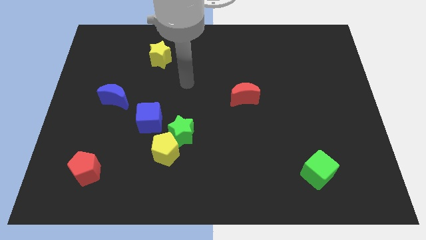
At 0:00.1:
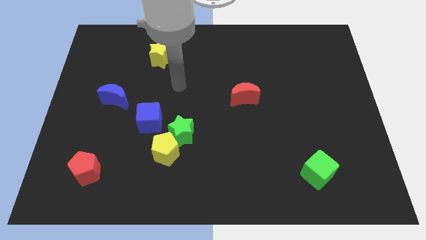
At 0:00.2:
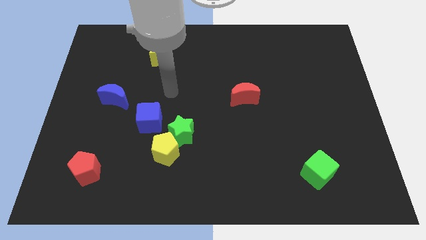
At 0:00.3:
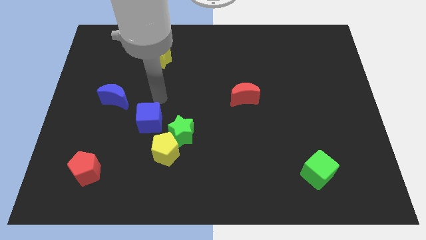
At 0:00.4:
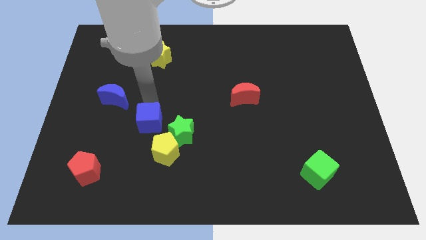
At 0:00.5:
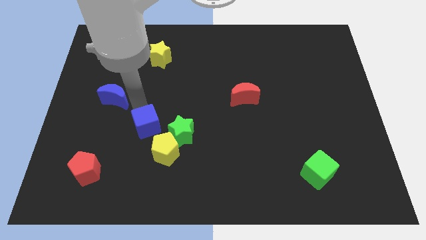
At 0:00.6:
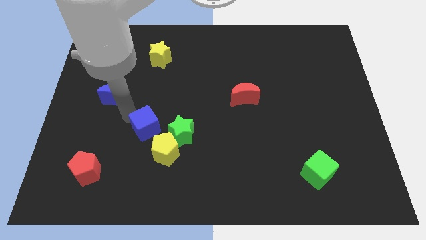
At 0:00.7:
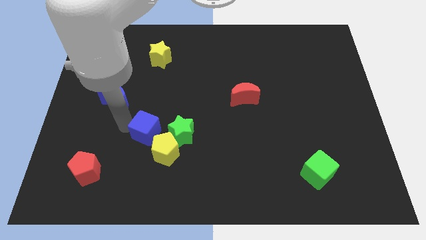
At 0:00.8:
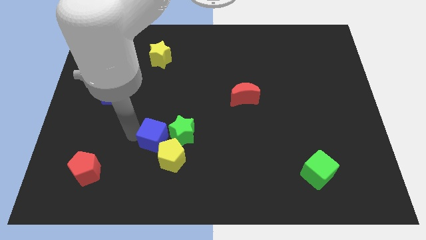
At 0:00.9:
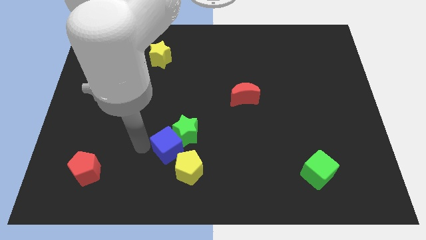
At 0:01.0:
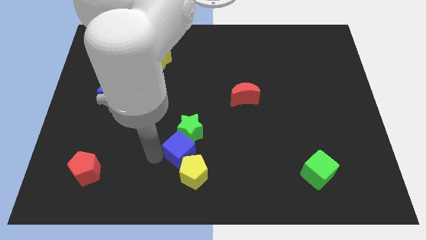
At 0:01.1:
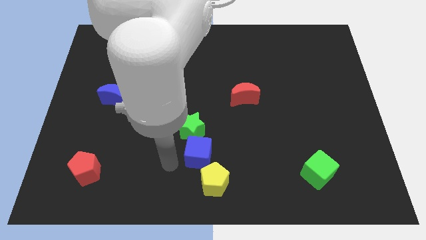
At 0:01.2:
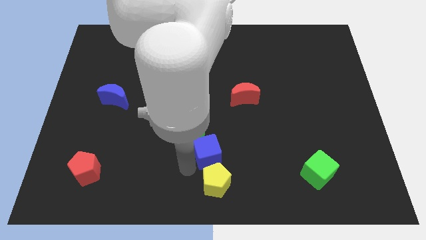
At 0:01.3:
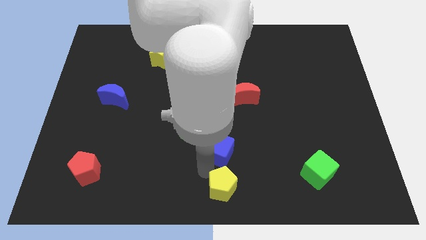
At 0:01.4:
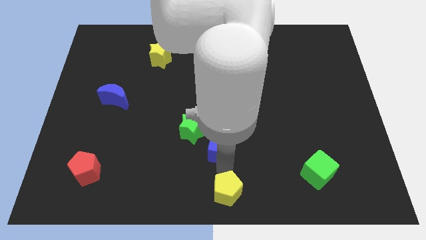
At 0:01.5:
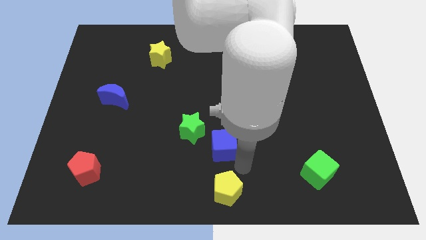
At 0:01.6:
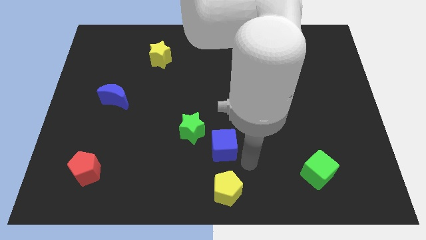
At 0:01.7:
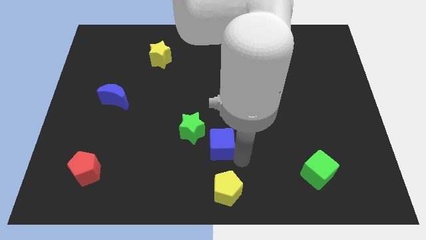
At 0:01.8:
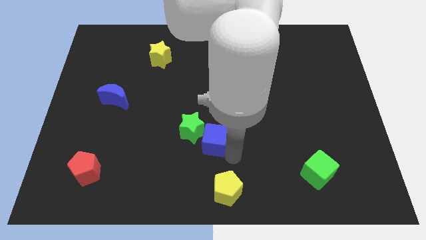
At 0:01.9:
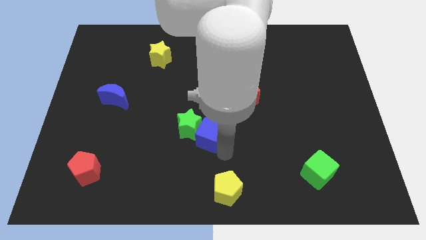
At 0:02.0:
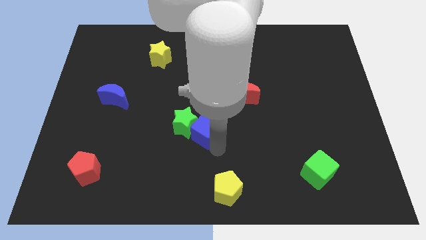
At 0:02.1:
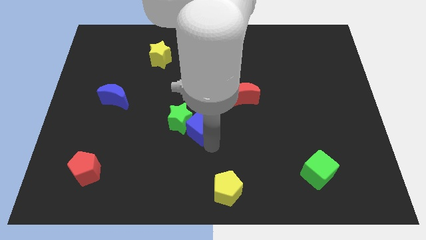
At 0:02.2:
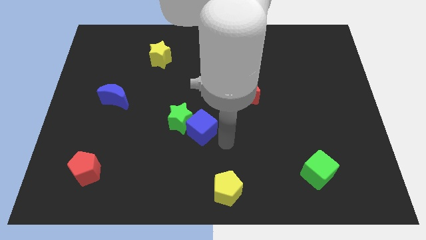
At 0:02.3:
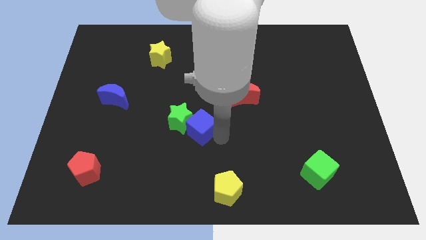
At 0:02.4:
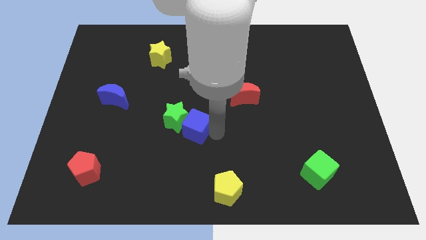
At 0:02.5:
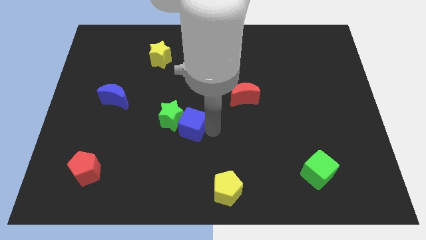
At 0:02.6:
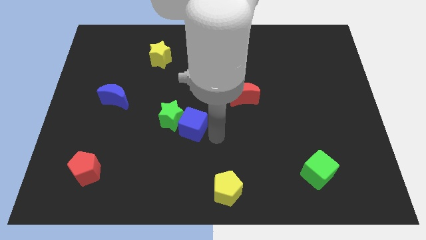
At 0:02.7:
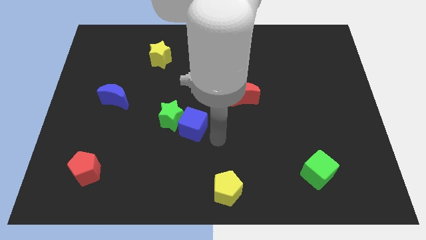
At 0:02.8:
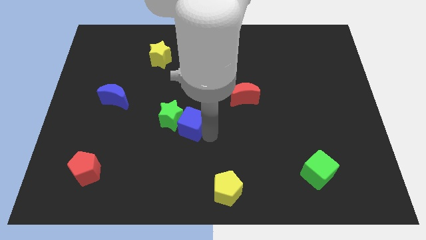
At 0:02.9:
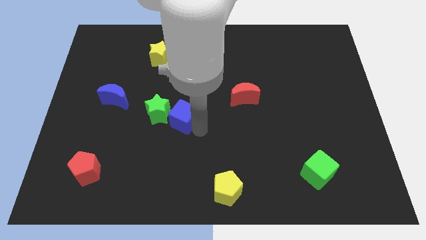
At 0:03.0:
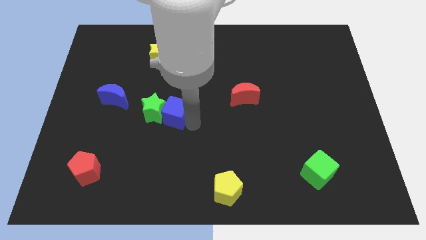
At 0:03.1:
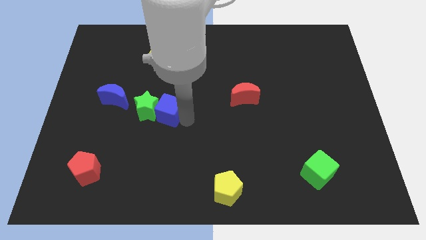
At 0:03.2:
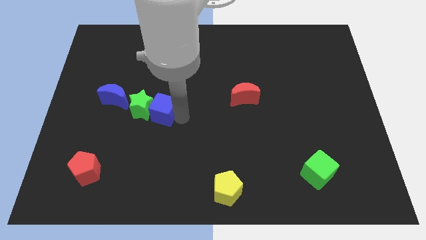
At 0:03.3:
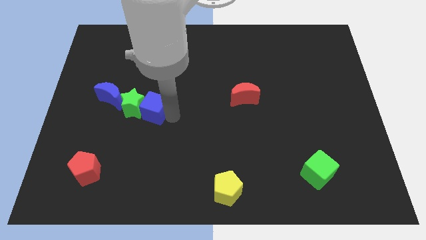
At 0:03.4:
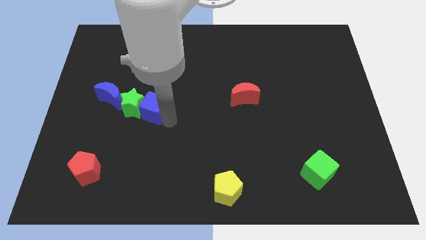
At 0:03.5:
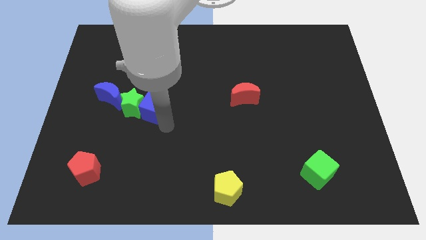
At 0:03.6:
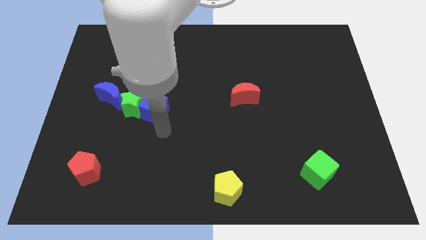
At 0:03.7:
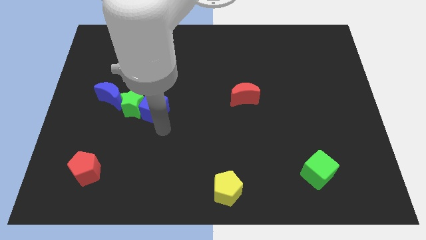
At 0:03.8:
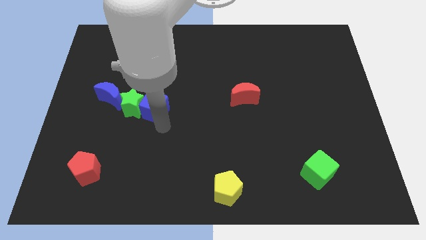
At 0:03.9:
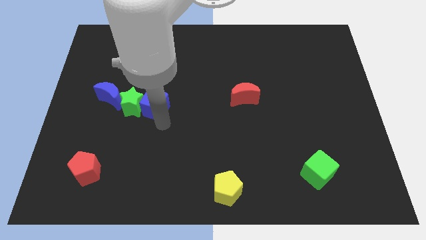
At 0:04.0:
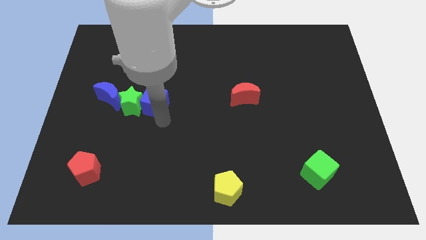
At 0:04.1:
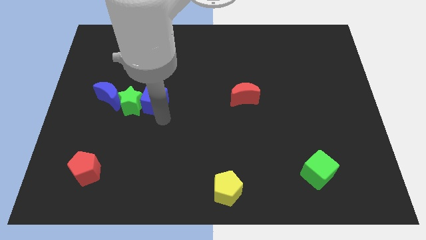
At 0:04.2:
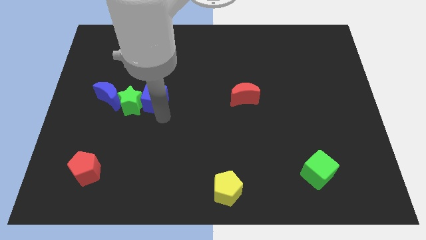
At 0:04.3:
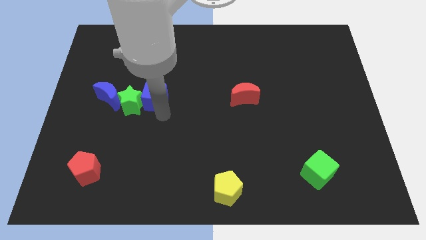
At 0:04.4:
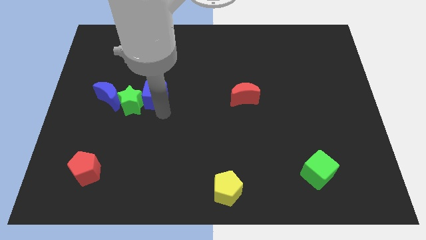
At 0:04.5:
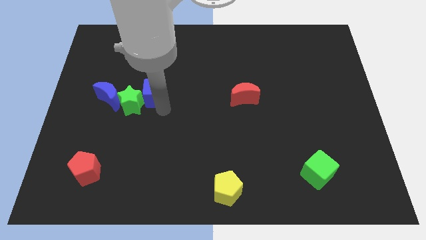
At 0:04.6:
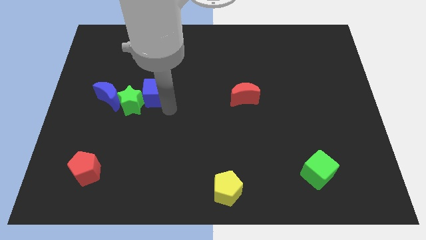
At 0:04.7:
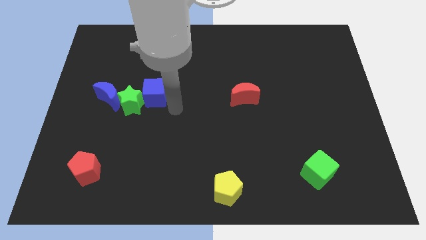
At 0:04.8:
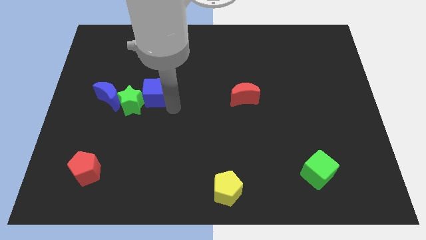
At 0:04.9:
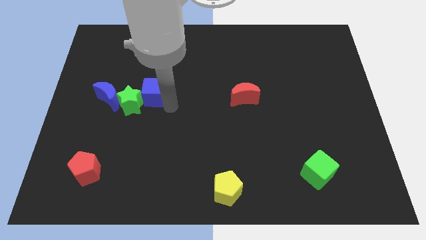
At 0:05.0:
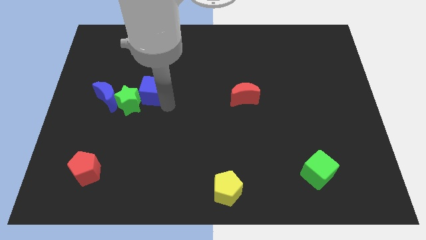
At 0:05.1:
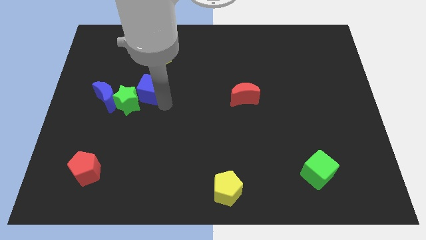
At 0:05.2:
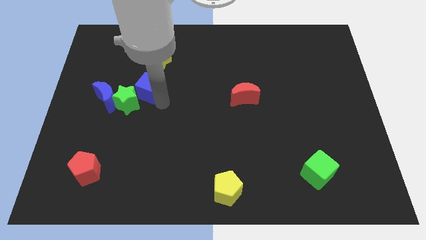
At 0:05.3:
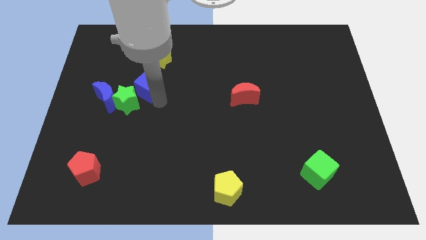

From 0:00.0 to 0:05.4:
put the blue cube diagonally up and to the right of the blue moon

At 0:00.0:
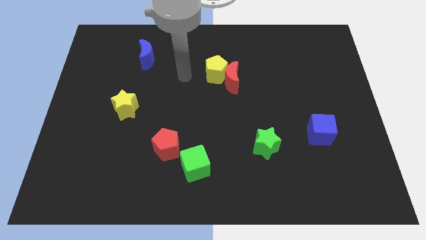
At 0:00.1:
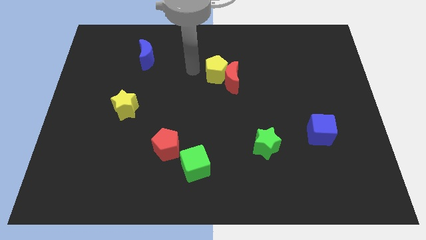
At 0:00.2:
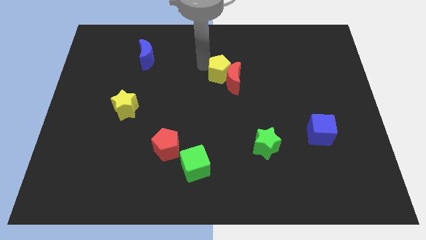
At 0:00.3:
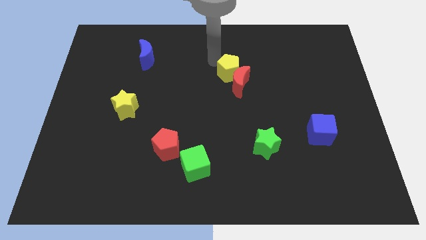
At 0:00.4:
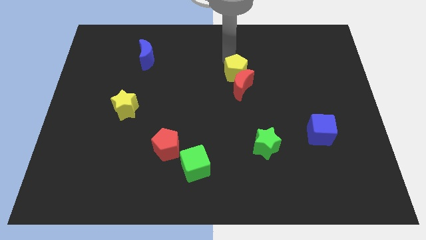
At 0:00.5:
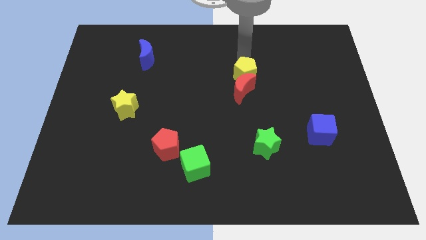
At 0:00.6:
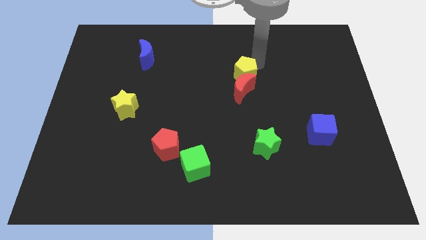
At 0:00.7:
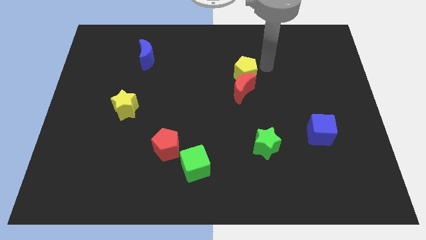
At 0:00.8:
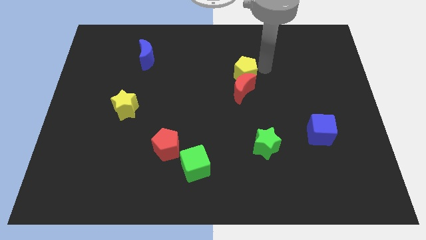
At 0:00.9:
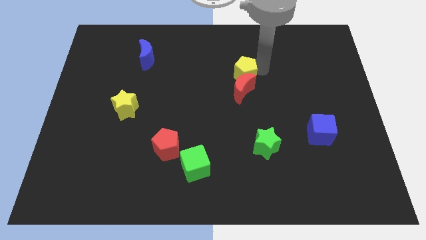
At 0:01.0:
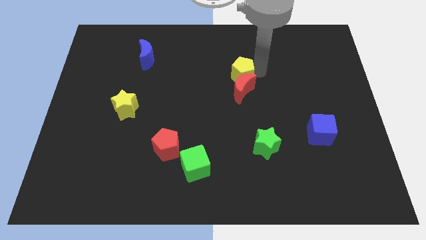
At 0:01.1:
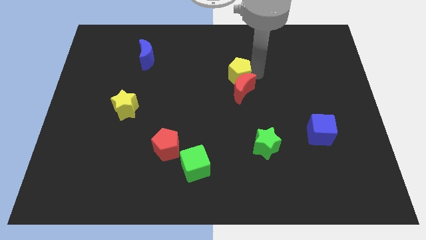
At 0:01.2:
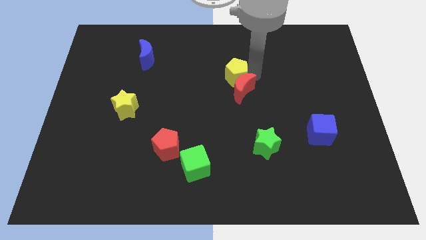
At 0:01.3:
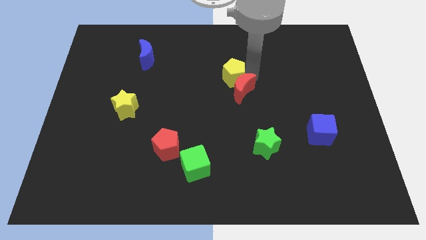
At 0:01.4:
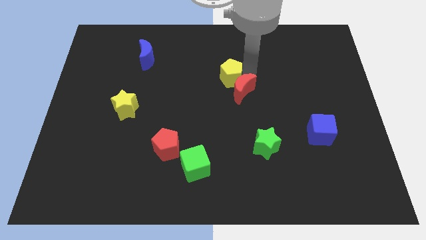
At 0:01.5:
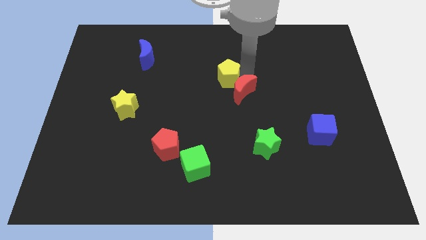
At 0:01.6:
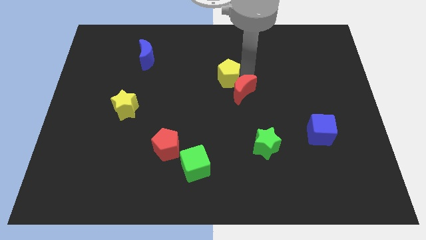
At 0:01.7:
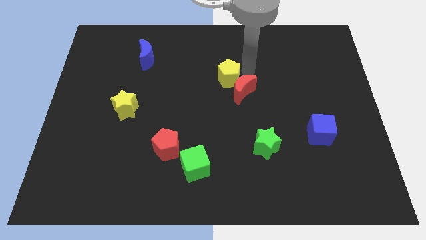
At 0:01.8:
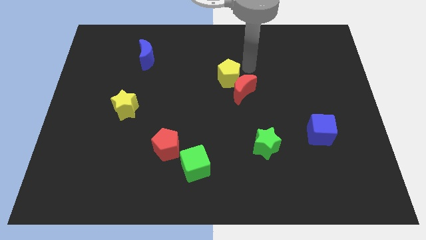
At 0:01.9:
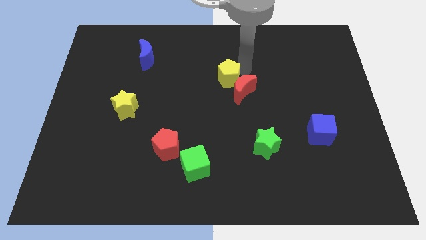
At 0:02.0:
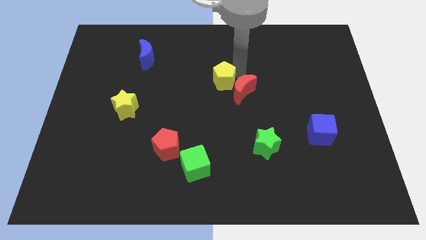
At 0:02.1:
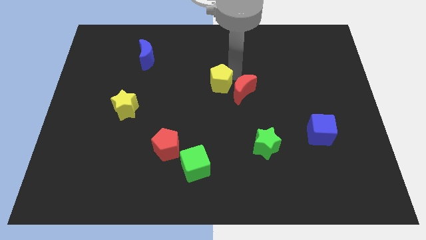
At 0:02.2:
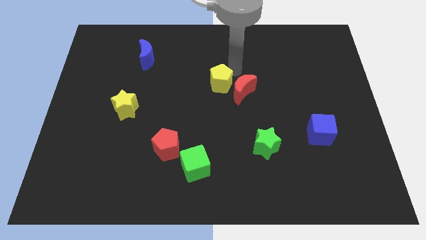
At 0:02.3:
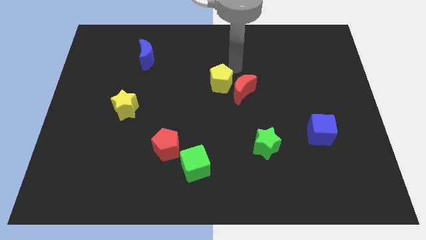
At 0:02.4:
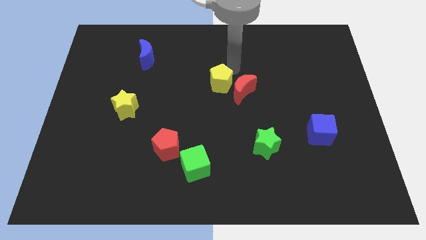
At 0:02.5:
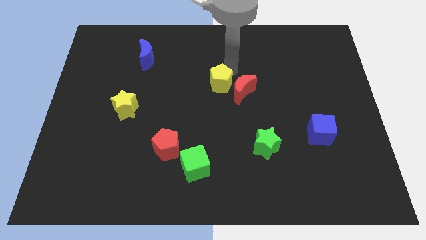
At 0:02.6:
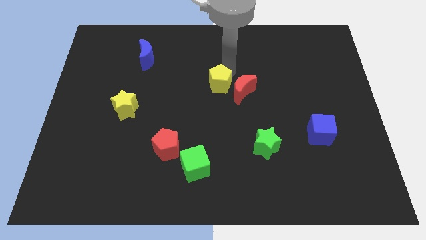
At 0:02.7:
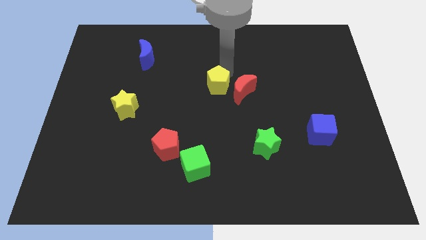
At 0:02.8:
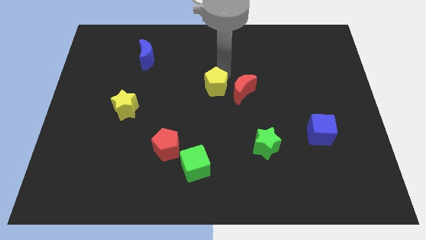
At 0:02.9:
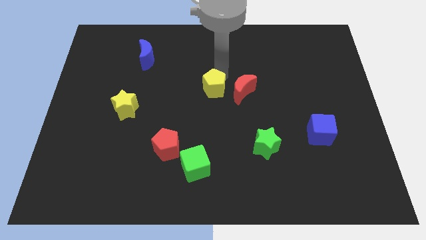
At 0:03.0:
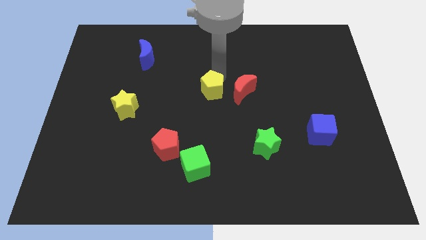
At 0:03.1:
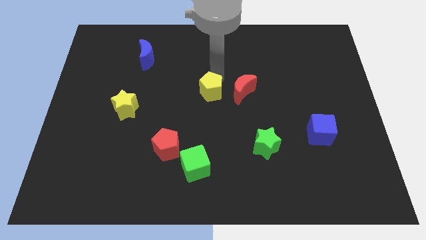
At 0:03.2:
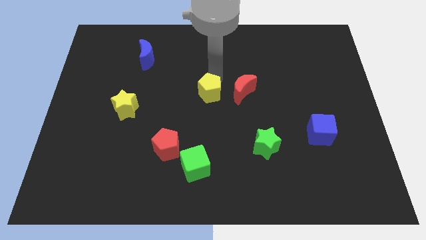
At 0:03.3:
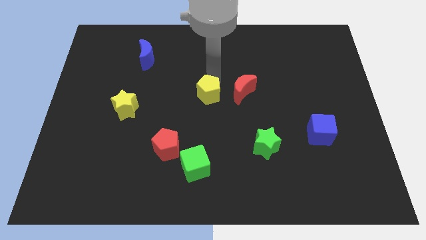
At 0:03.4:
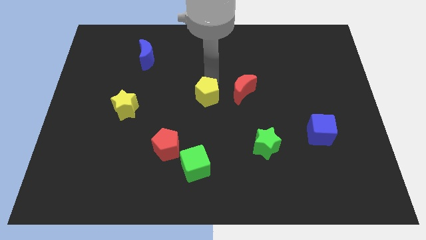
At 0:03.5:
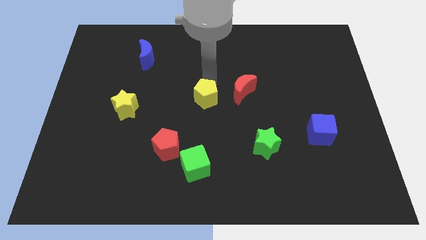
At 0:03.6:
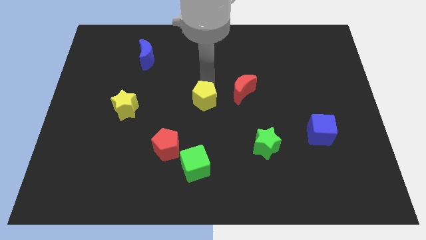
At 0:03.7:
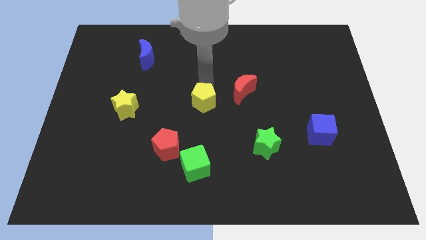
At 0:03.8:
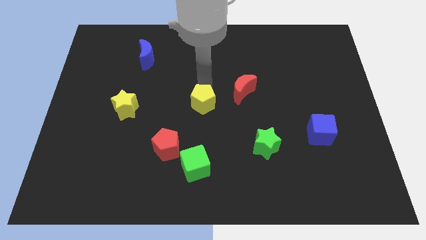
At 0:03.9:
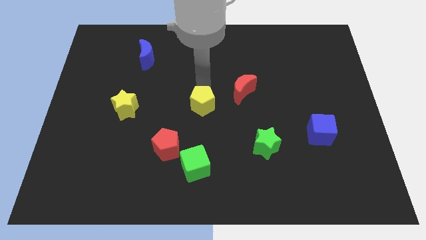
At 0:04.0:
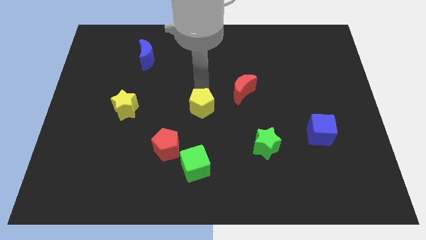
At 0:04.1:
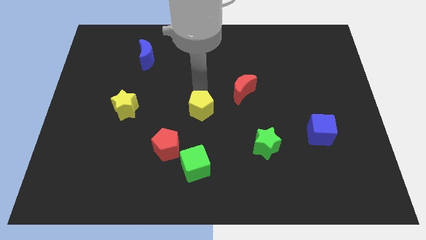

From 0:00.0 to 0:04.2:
put the yellow pentagon to the top right of the red pentagon
